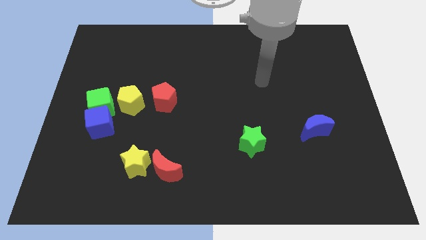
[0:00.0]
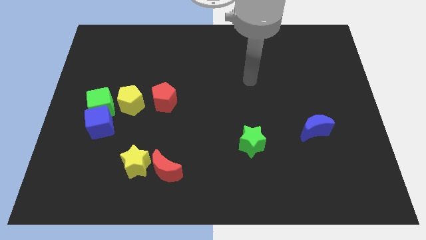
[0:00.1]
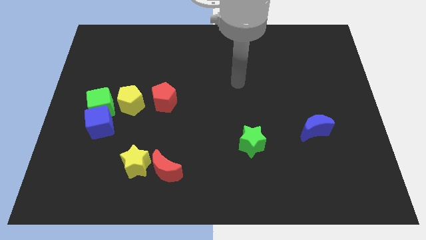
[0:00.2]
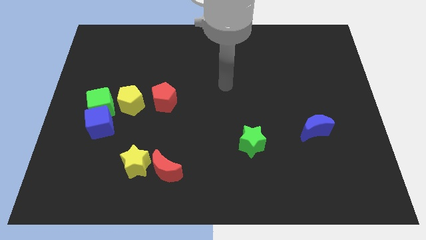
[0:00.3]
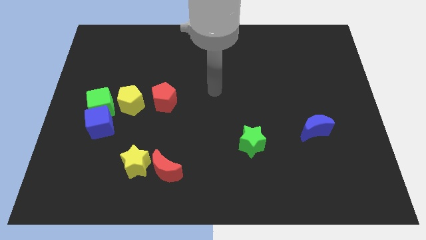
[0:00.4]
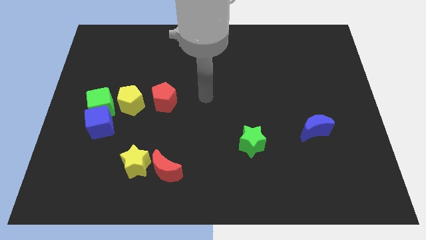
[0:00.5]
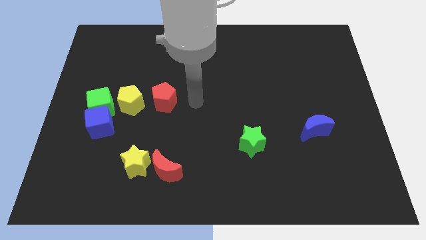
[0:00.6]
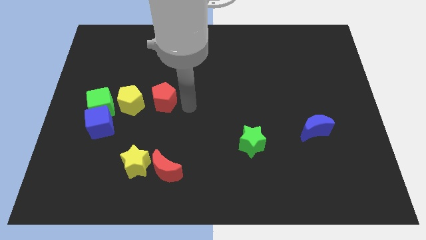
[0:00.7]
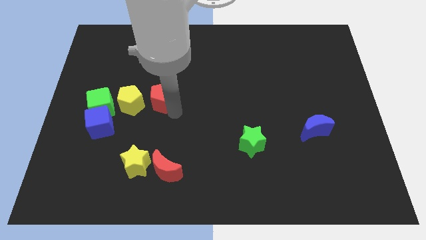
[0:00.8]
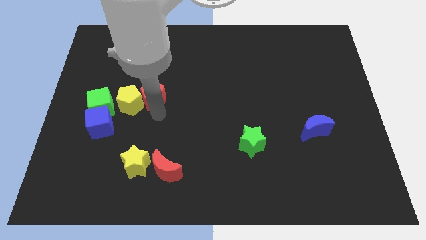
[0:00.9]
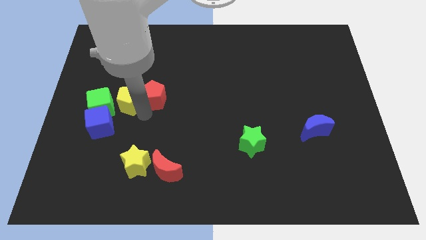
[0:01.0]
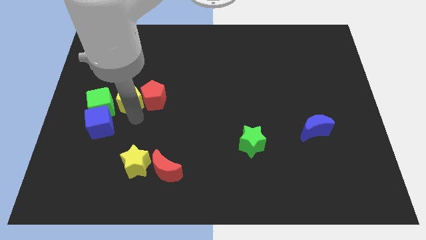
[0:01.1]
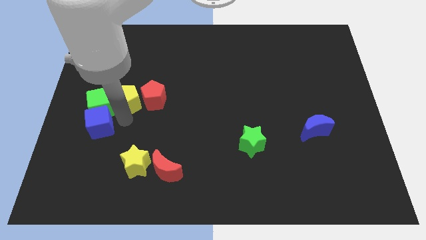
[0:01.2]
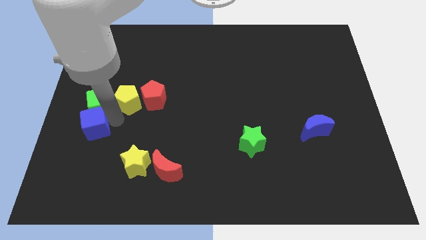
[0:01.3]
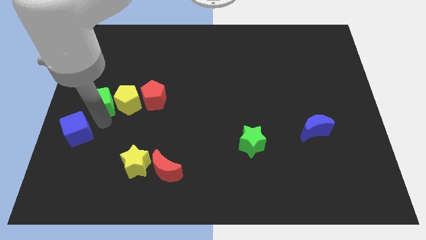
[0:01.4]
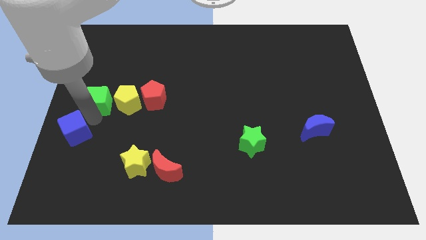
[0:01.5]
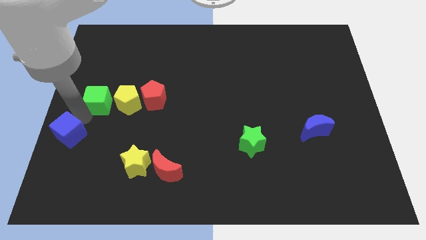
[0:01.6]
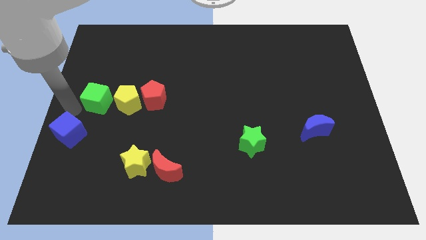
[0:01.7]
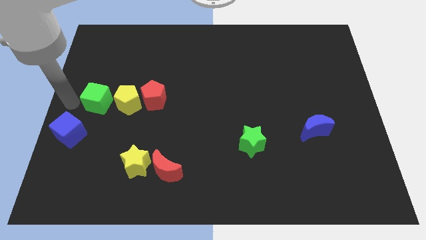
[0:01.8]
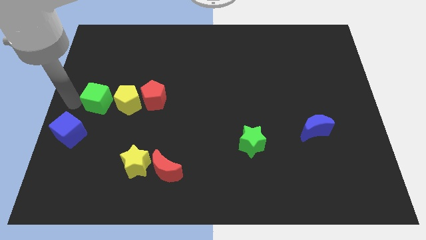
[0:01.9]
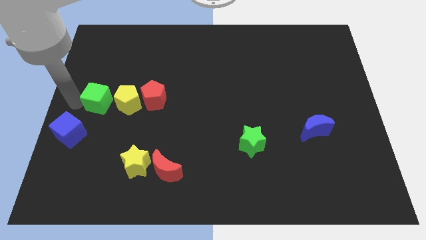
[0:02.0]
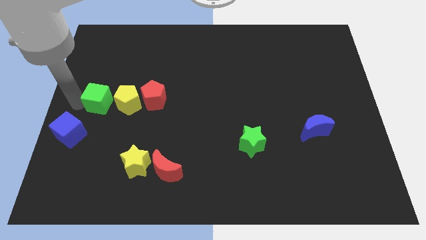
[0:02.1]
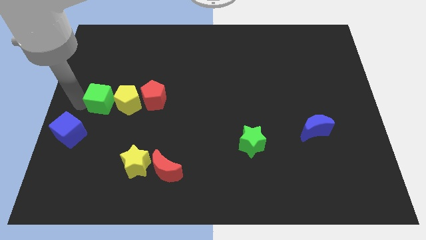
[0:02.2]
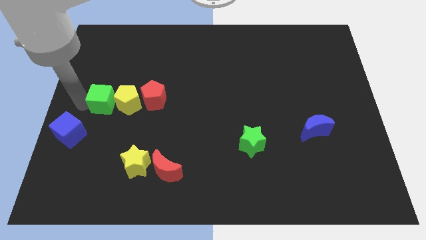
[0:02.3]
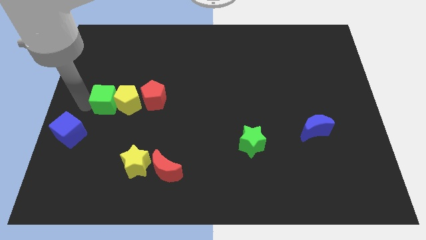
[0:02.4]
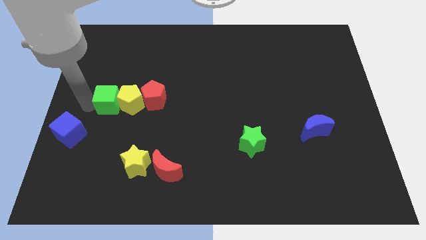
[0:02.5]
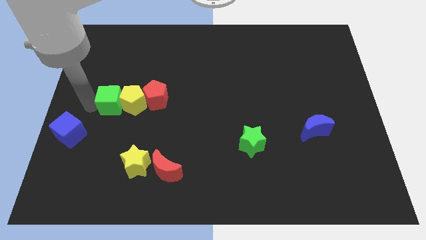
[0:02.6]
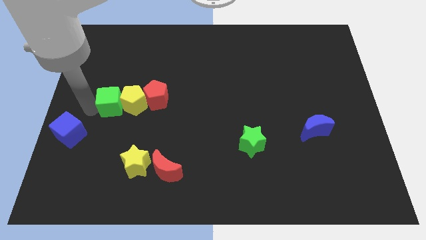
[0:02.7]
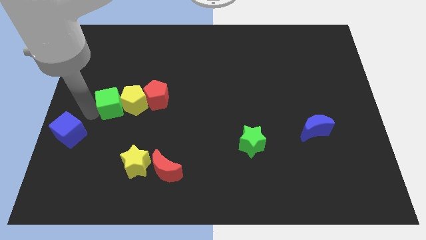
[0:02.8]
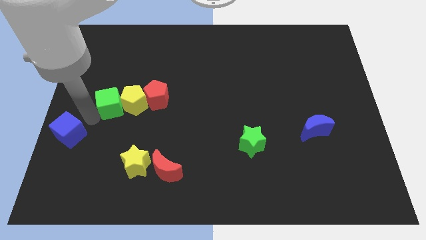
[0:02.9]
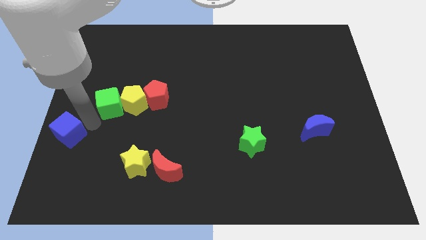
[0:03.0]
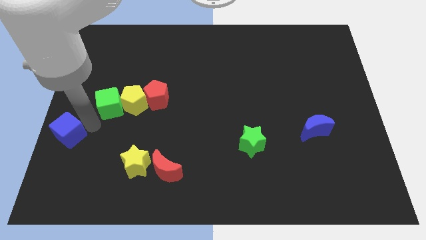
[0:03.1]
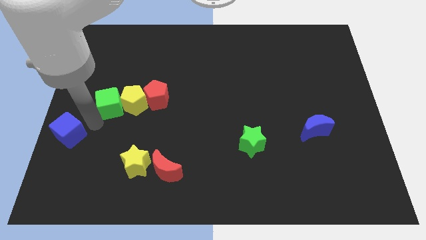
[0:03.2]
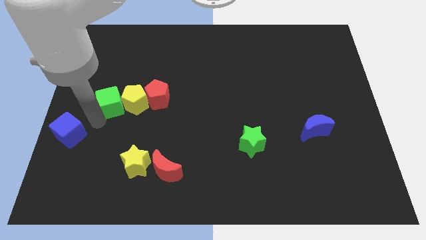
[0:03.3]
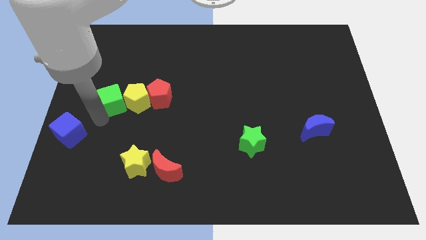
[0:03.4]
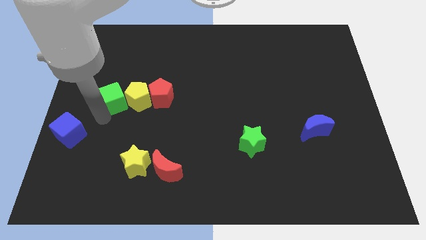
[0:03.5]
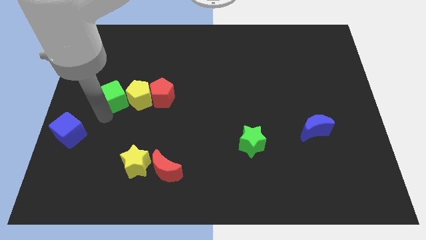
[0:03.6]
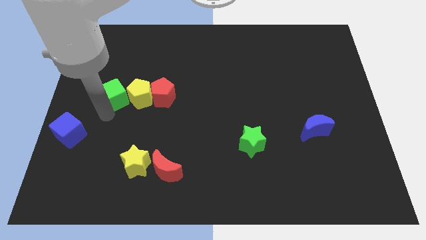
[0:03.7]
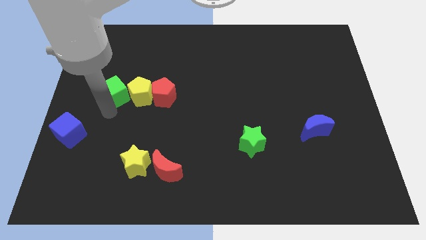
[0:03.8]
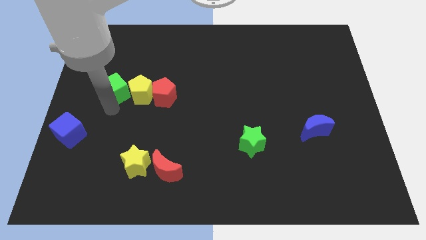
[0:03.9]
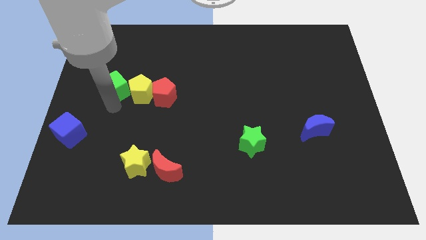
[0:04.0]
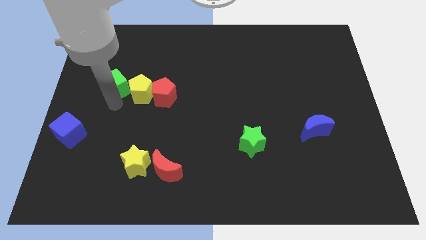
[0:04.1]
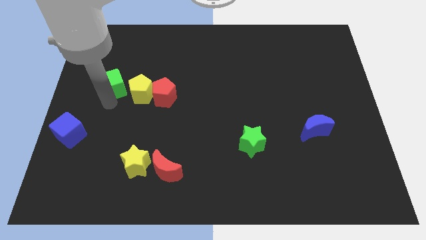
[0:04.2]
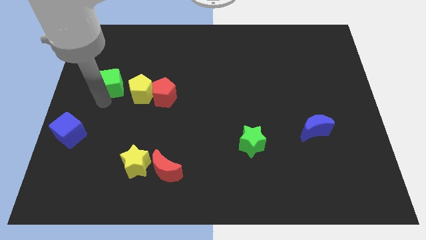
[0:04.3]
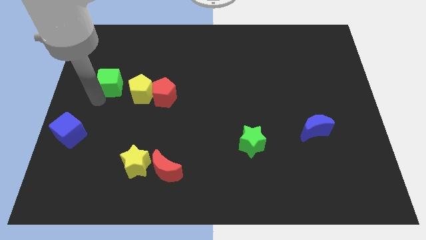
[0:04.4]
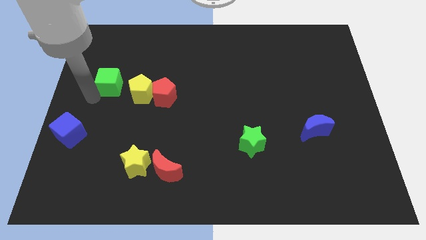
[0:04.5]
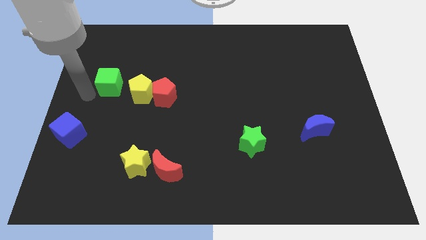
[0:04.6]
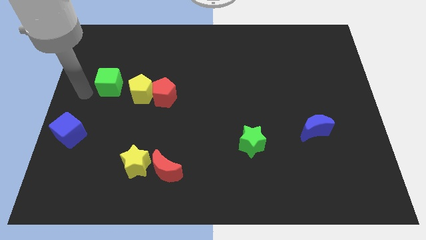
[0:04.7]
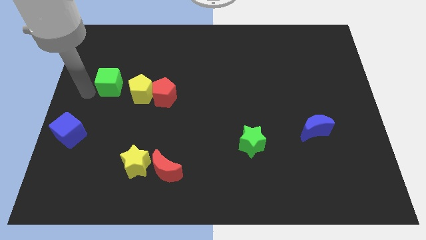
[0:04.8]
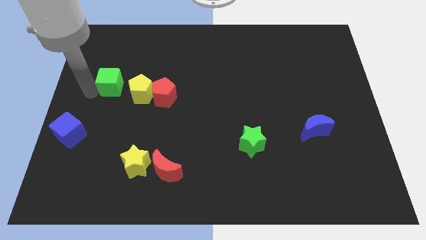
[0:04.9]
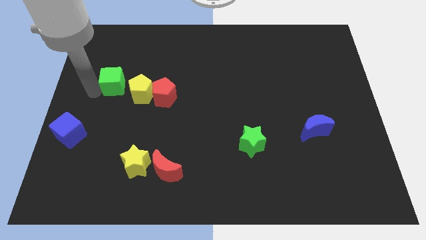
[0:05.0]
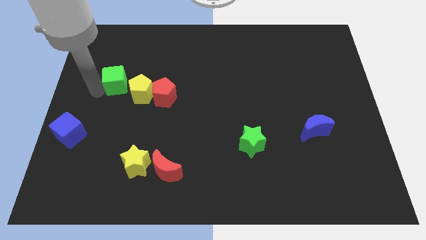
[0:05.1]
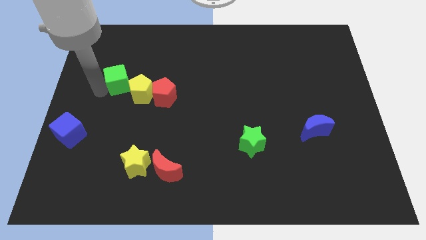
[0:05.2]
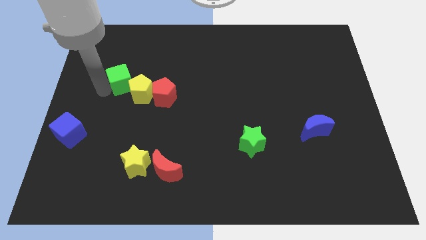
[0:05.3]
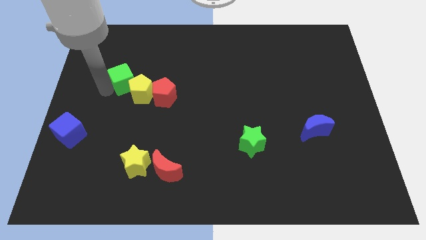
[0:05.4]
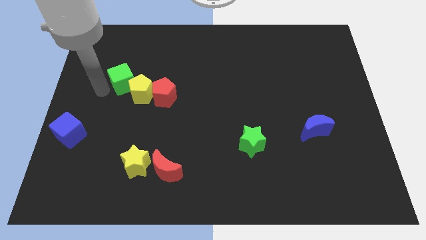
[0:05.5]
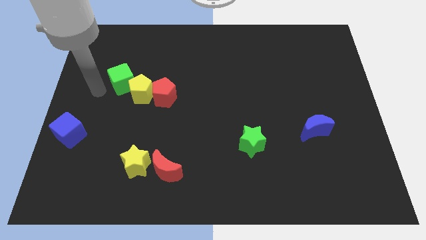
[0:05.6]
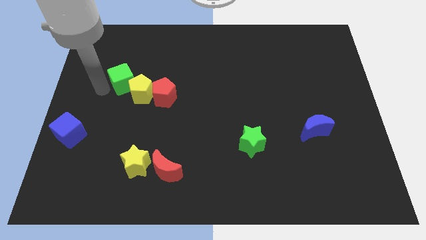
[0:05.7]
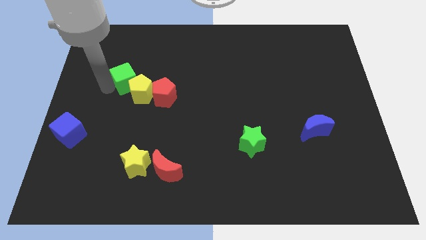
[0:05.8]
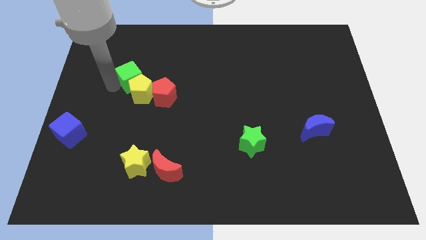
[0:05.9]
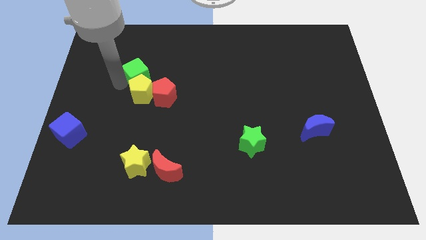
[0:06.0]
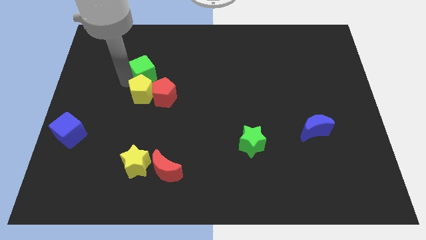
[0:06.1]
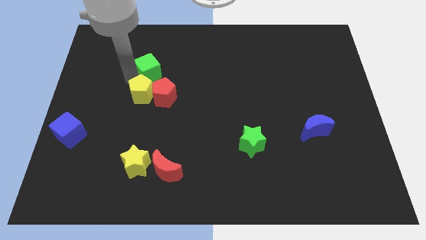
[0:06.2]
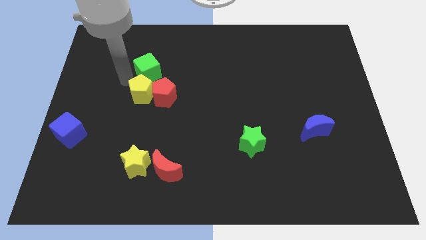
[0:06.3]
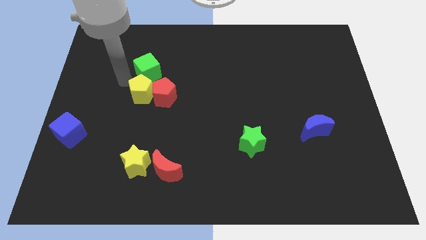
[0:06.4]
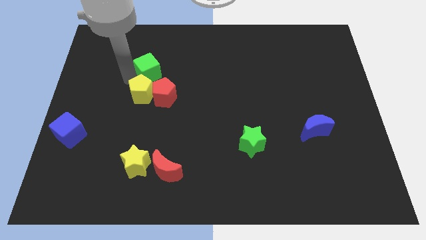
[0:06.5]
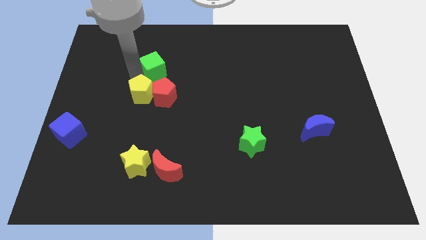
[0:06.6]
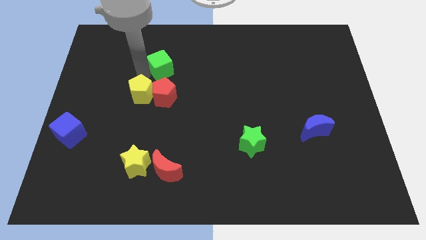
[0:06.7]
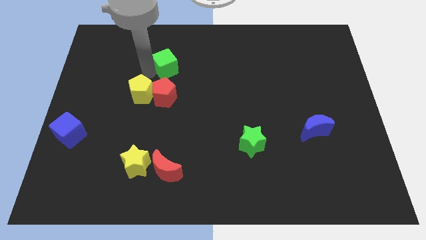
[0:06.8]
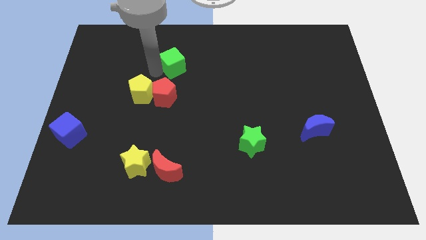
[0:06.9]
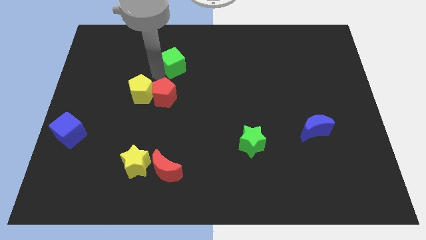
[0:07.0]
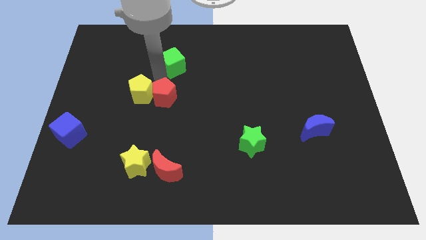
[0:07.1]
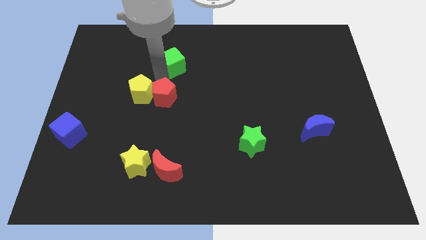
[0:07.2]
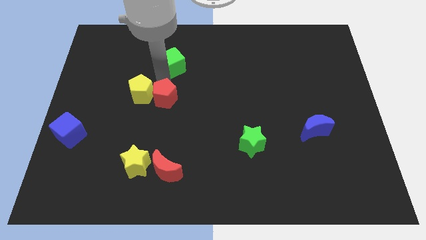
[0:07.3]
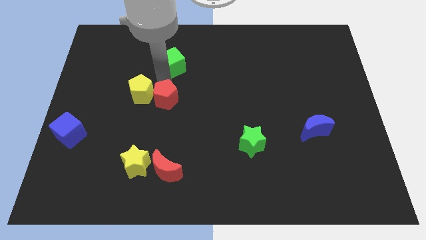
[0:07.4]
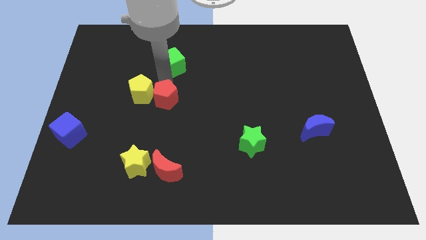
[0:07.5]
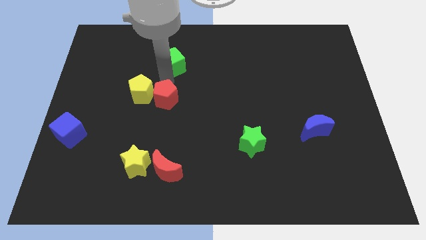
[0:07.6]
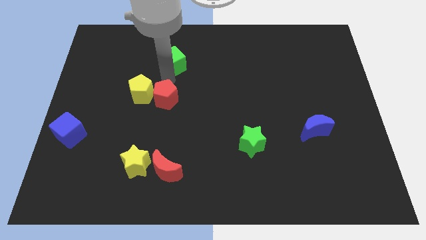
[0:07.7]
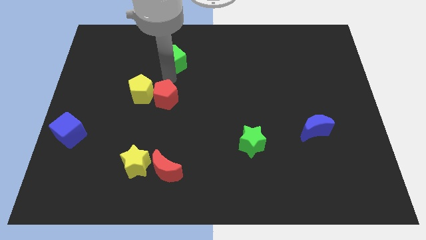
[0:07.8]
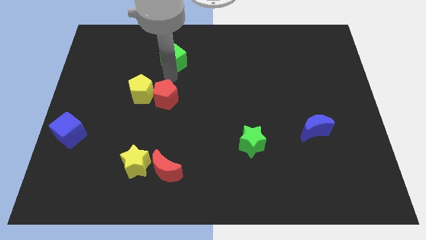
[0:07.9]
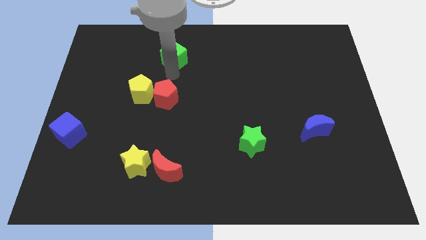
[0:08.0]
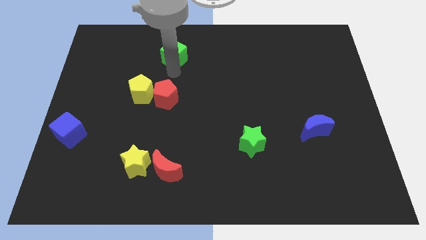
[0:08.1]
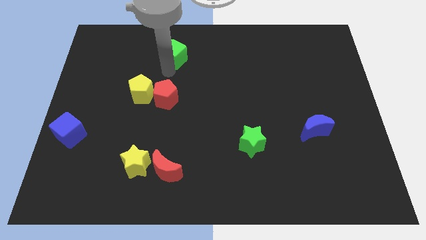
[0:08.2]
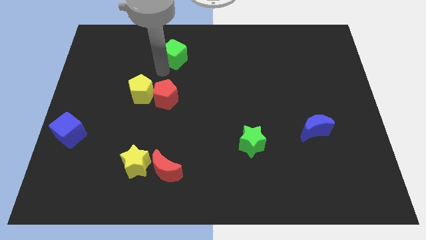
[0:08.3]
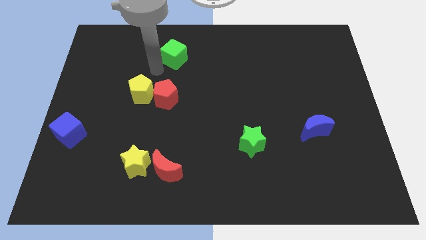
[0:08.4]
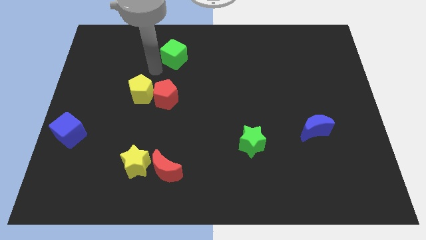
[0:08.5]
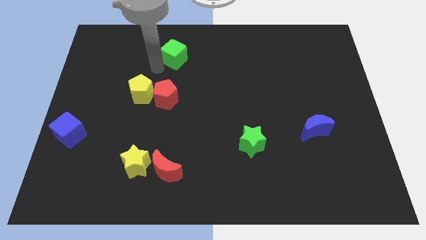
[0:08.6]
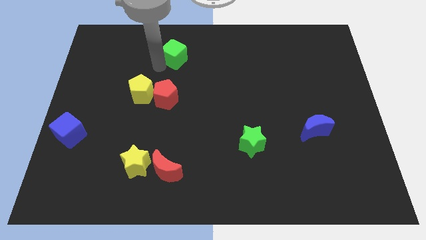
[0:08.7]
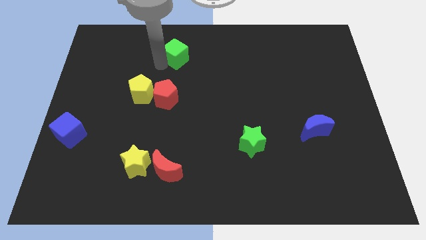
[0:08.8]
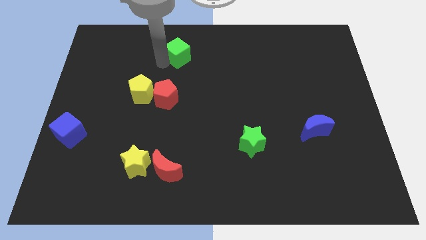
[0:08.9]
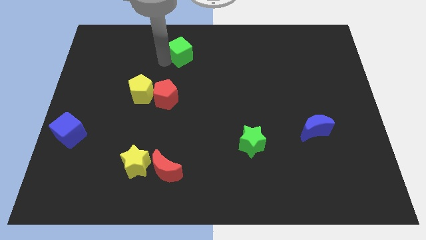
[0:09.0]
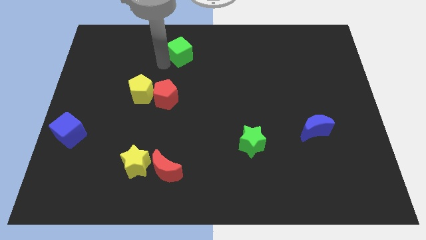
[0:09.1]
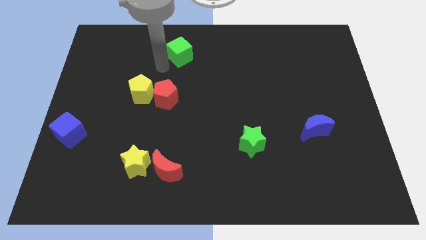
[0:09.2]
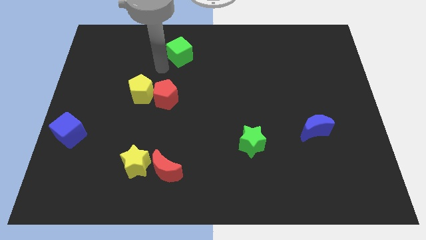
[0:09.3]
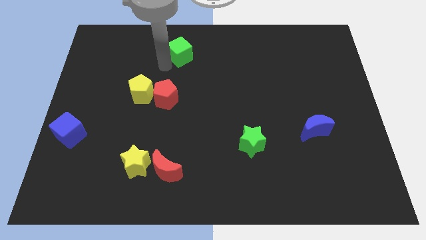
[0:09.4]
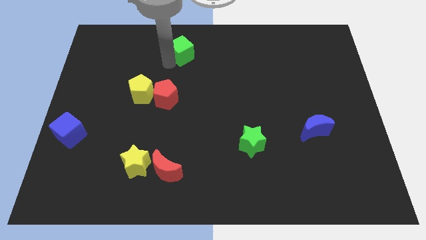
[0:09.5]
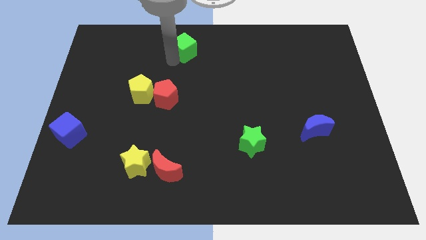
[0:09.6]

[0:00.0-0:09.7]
push the green cube to the top side
